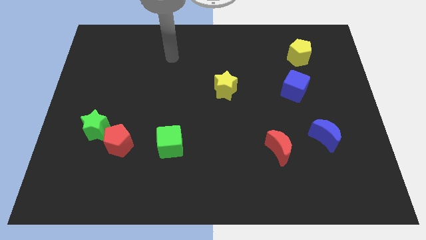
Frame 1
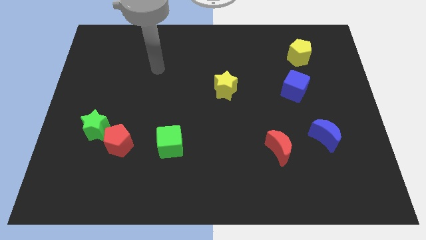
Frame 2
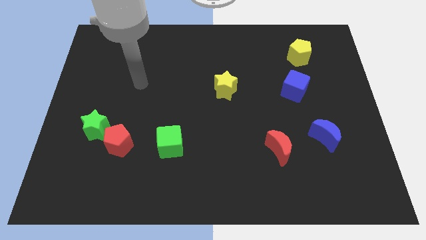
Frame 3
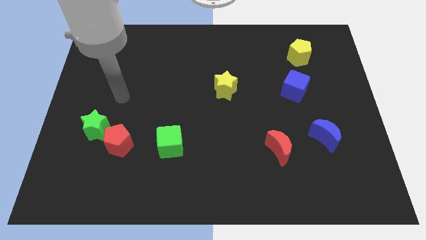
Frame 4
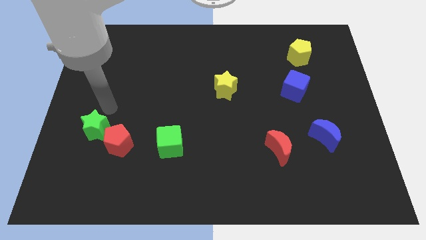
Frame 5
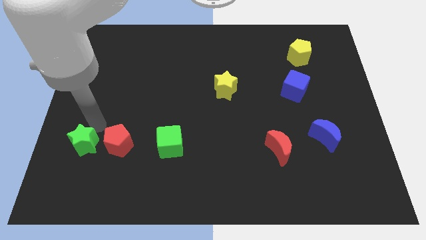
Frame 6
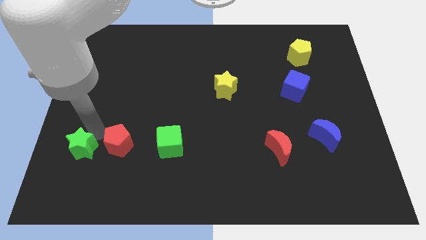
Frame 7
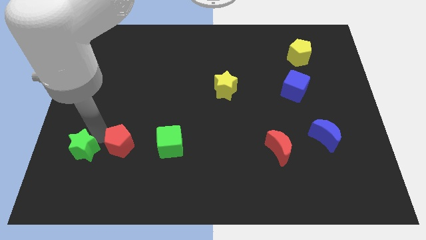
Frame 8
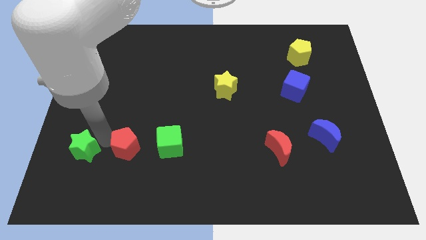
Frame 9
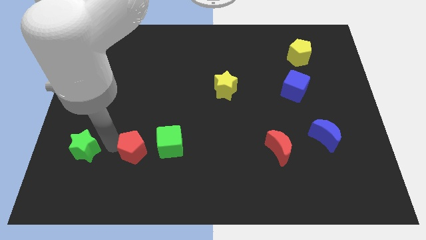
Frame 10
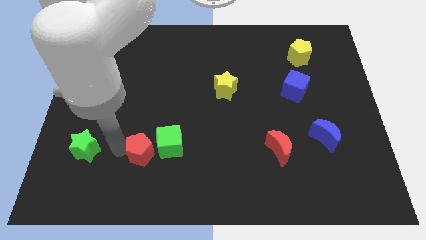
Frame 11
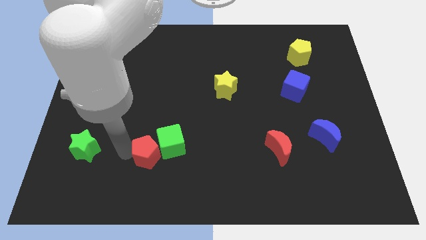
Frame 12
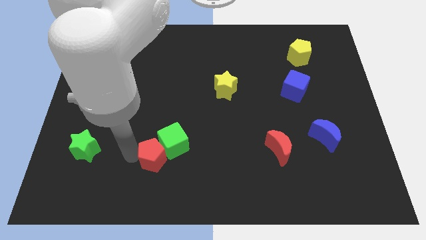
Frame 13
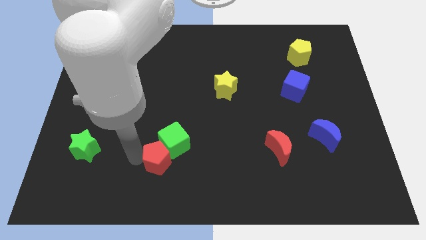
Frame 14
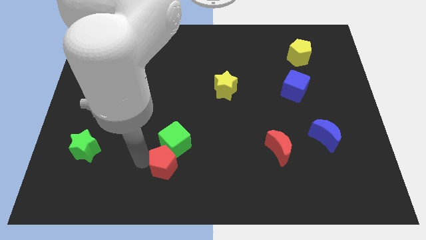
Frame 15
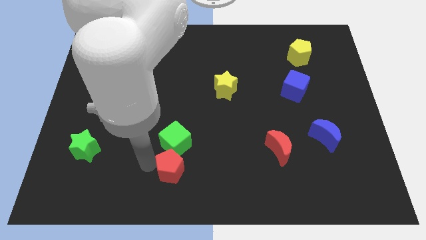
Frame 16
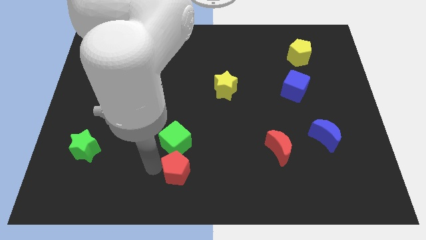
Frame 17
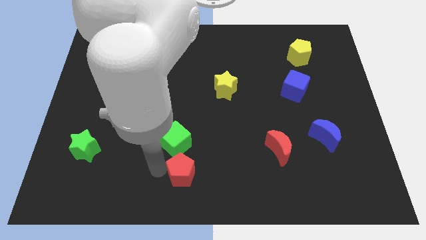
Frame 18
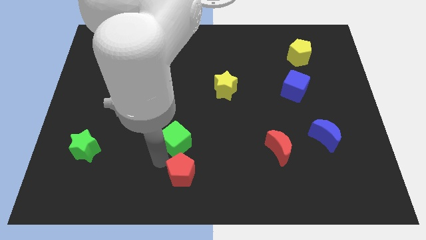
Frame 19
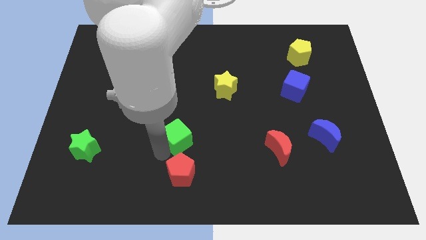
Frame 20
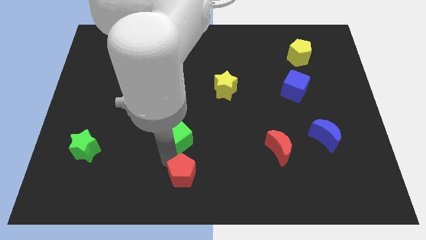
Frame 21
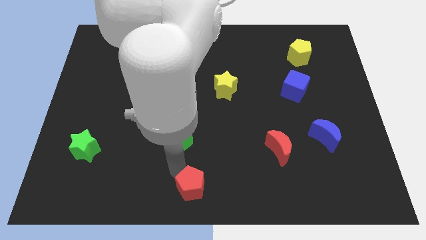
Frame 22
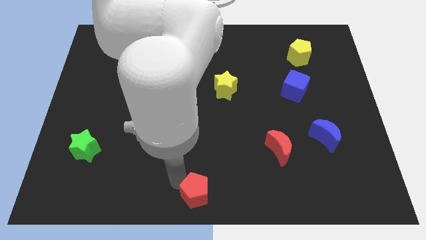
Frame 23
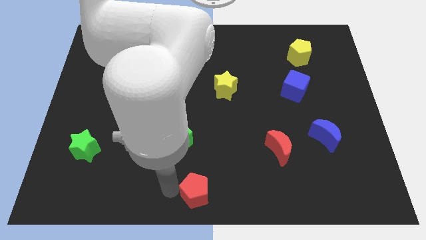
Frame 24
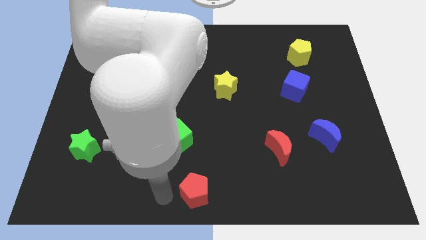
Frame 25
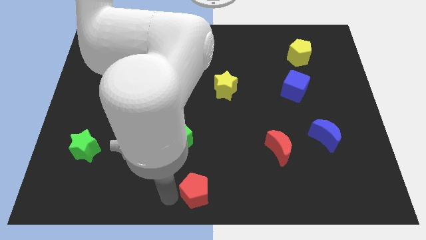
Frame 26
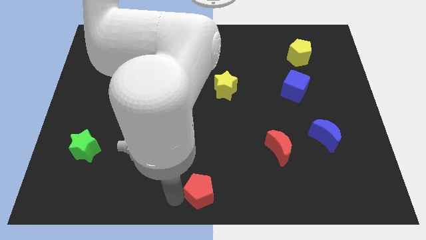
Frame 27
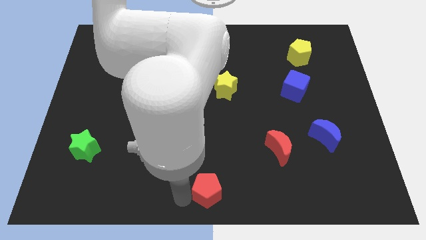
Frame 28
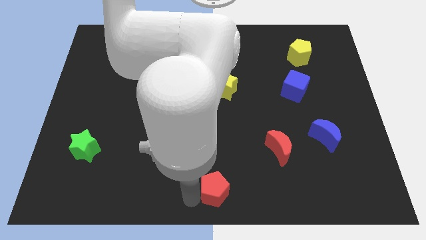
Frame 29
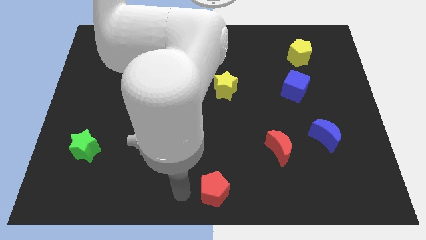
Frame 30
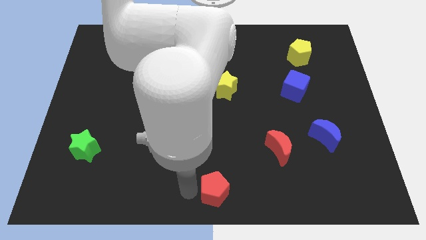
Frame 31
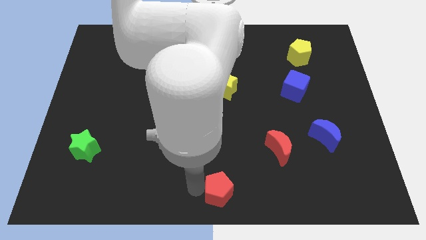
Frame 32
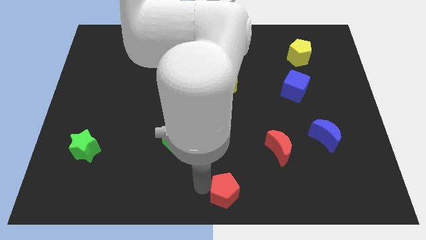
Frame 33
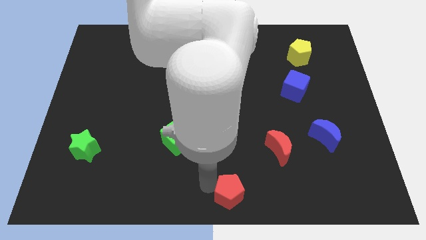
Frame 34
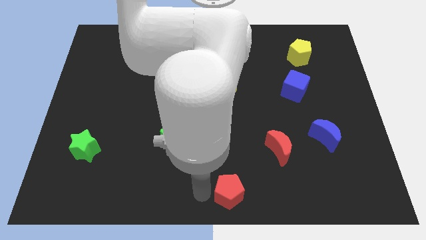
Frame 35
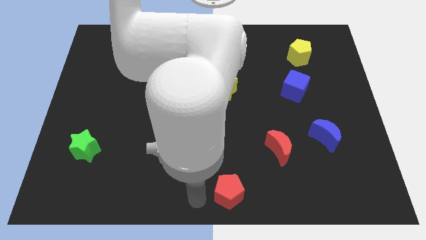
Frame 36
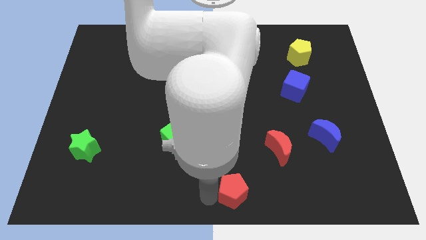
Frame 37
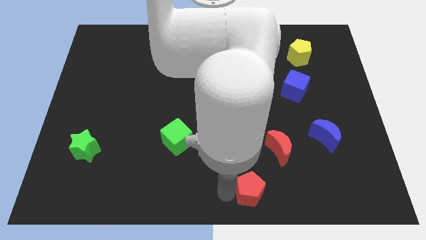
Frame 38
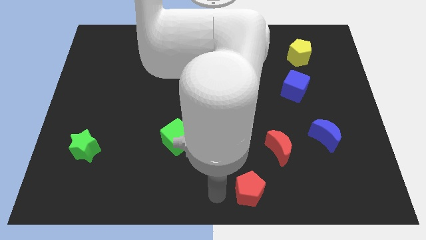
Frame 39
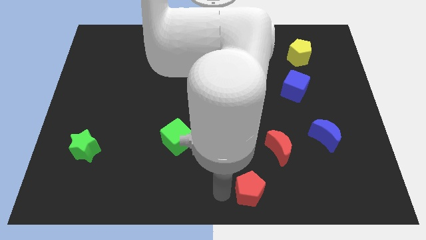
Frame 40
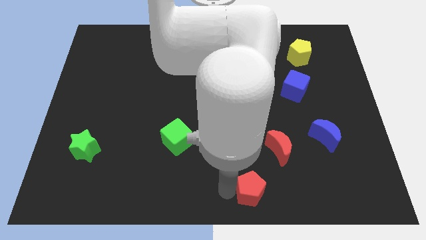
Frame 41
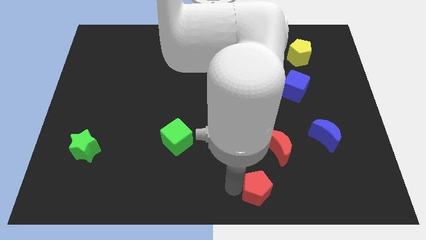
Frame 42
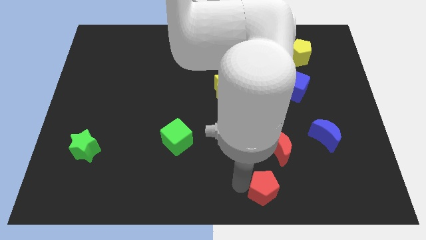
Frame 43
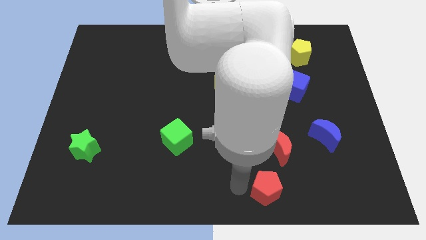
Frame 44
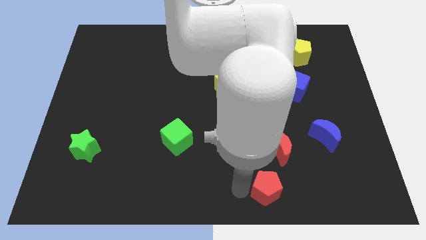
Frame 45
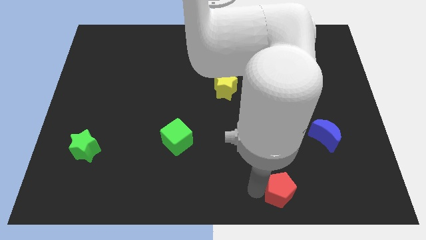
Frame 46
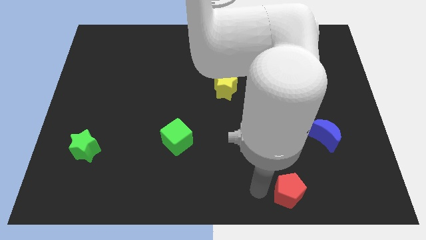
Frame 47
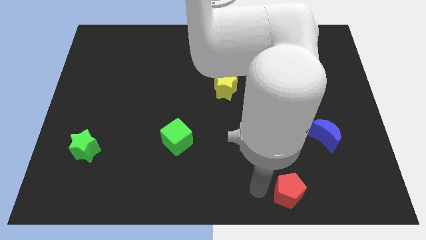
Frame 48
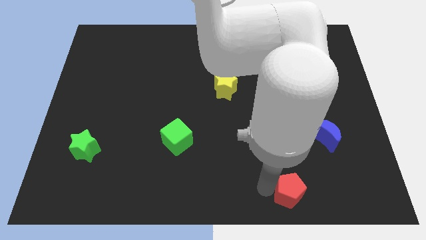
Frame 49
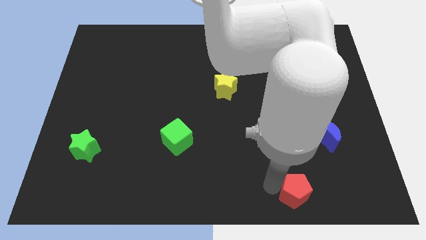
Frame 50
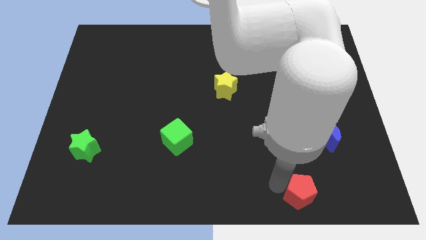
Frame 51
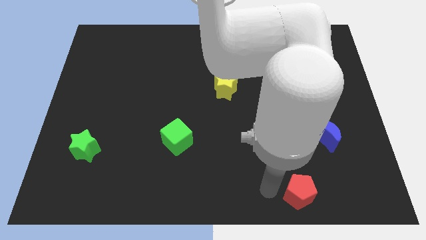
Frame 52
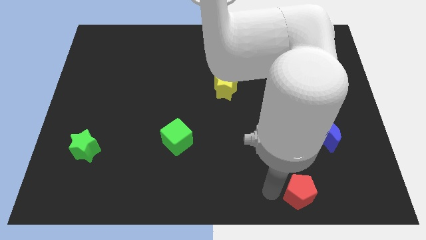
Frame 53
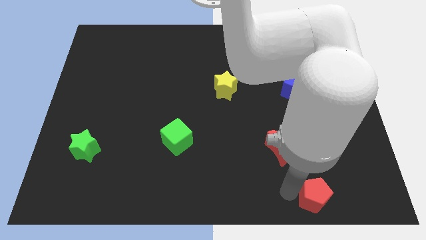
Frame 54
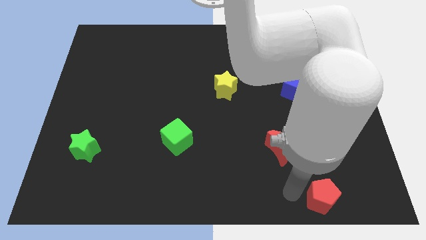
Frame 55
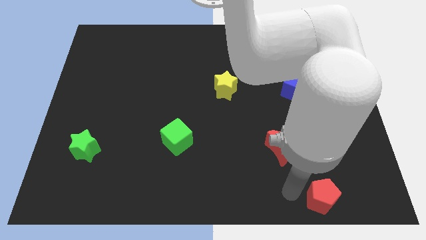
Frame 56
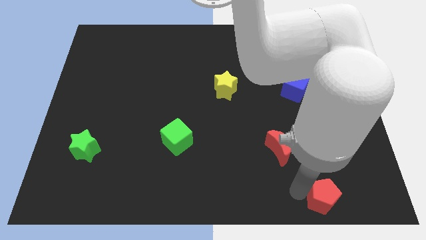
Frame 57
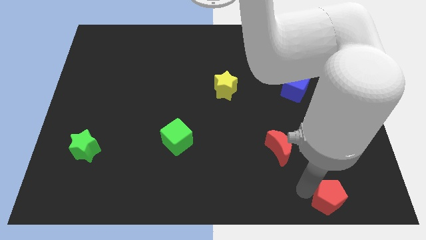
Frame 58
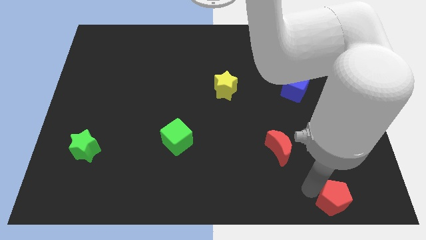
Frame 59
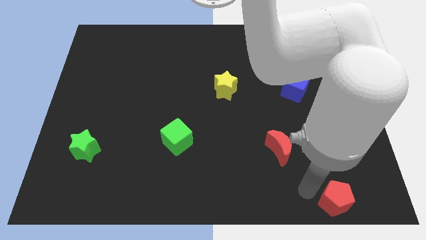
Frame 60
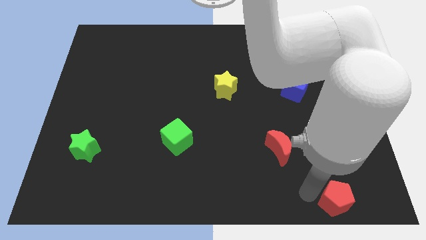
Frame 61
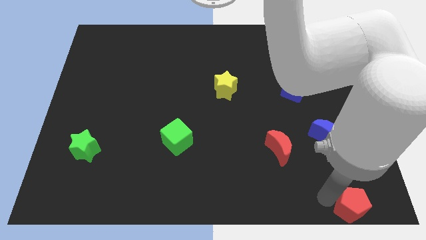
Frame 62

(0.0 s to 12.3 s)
move the red pentagon to the bottom right corner
